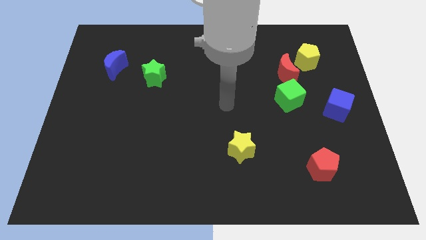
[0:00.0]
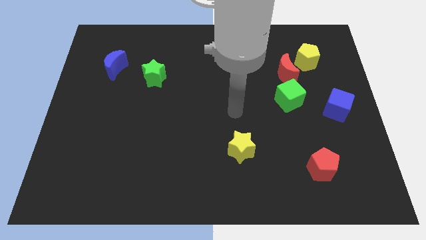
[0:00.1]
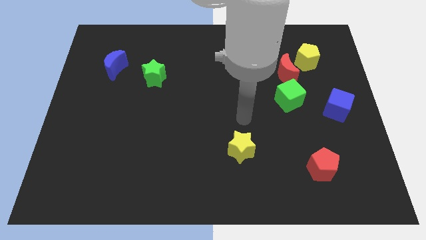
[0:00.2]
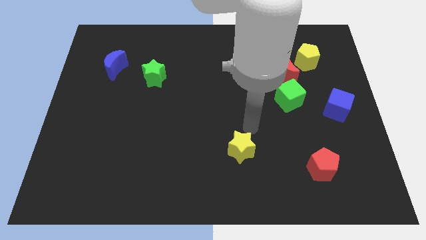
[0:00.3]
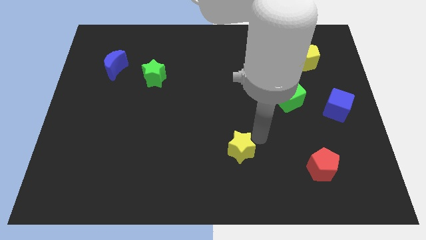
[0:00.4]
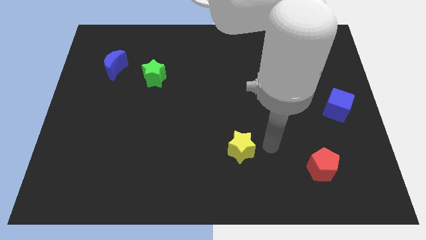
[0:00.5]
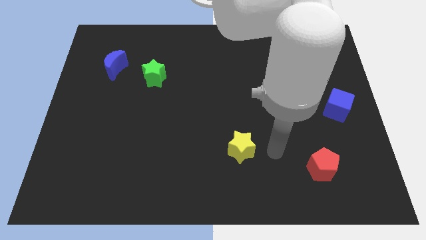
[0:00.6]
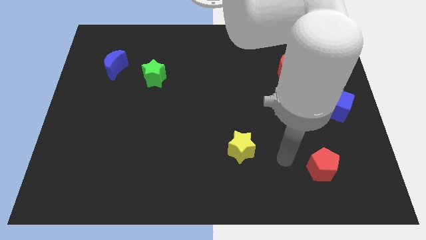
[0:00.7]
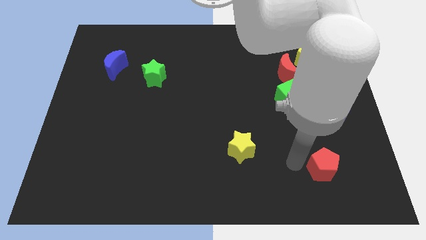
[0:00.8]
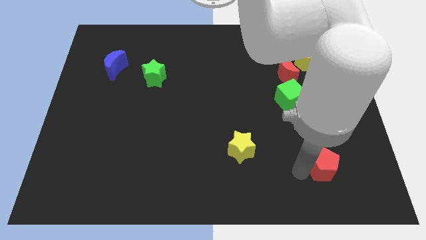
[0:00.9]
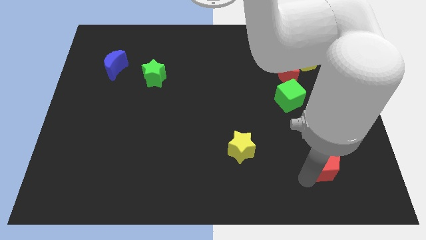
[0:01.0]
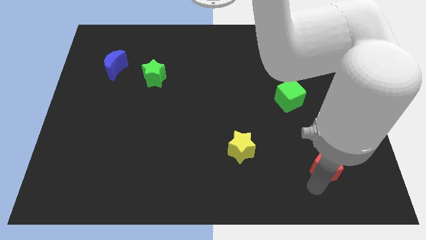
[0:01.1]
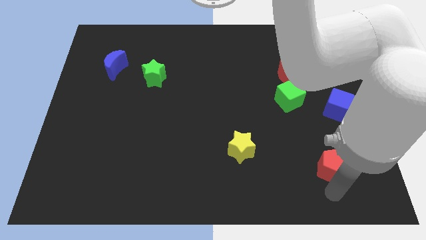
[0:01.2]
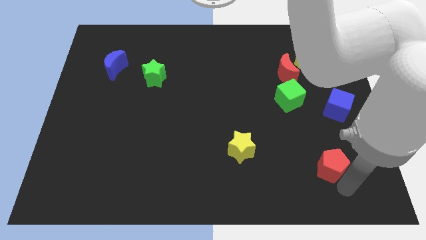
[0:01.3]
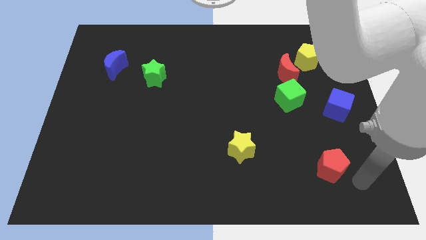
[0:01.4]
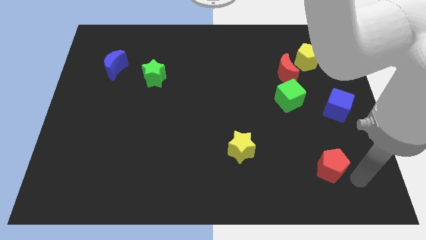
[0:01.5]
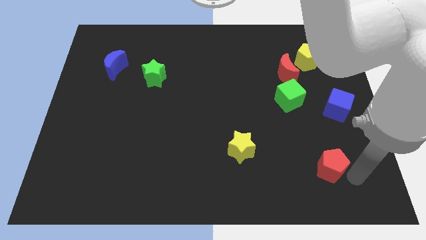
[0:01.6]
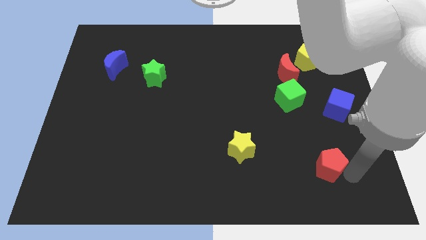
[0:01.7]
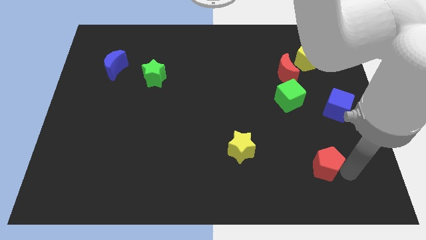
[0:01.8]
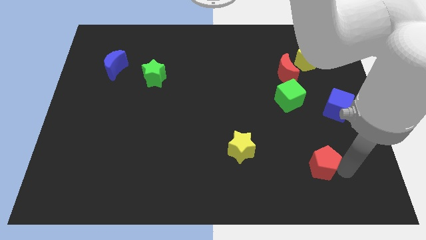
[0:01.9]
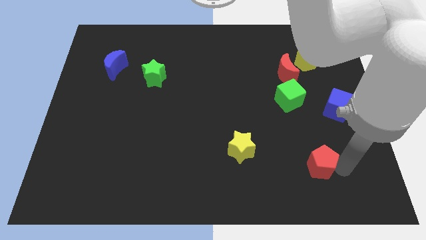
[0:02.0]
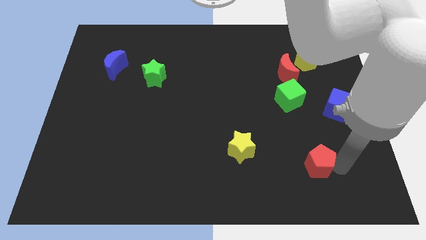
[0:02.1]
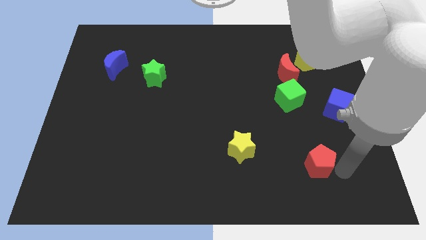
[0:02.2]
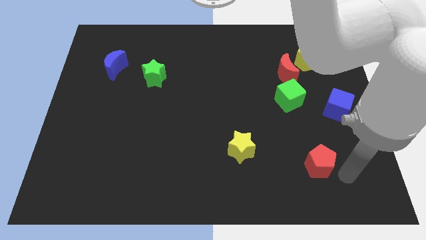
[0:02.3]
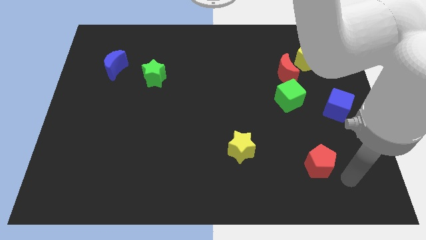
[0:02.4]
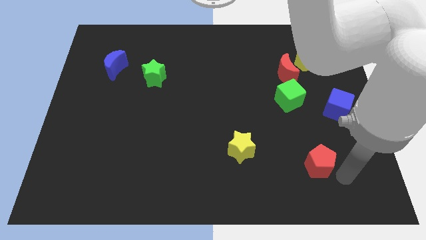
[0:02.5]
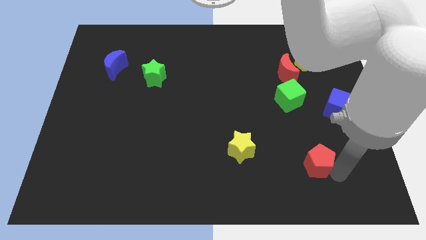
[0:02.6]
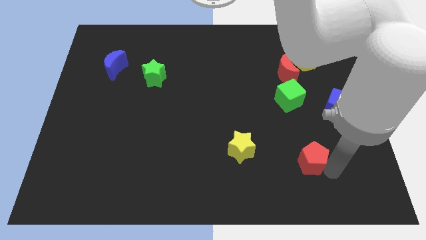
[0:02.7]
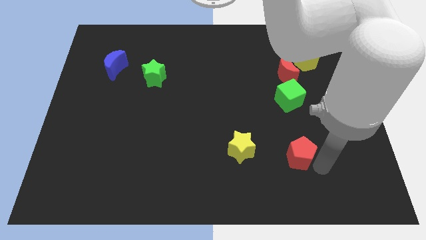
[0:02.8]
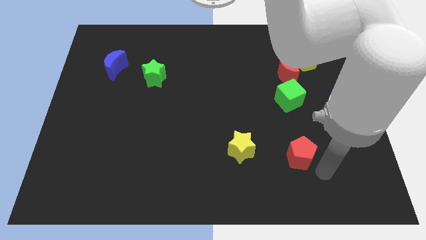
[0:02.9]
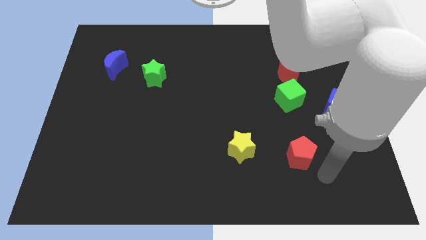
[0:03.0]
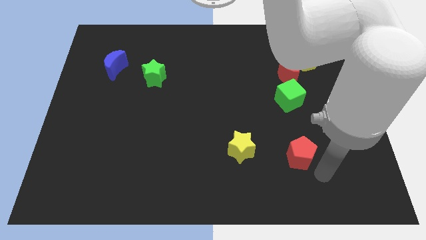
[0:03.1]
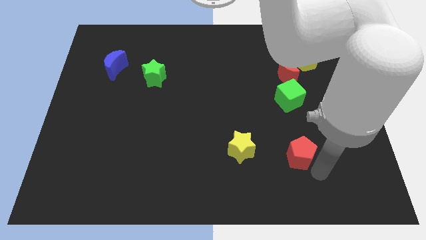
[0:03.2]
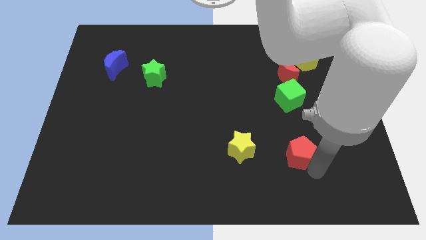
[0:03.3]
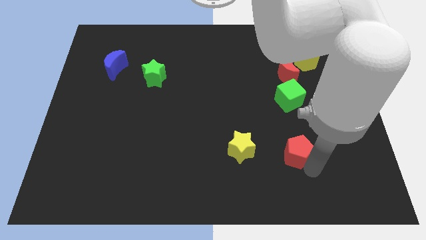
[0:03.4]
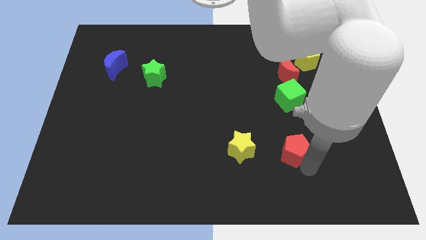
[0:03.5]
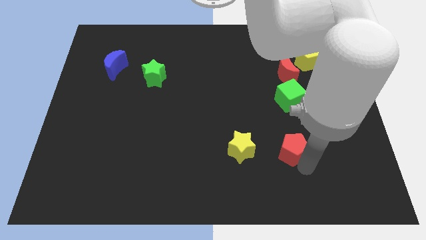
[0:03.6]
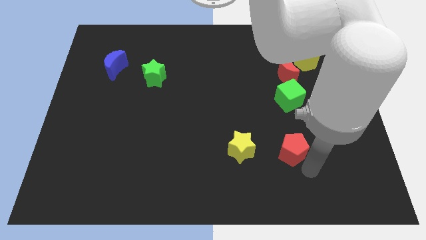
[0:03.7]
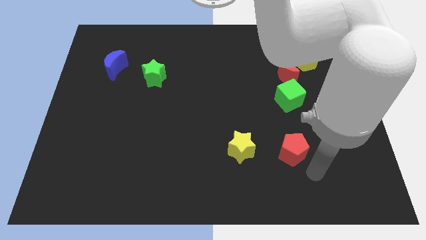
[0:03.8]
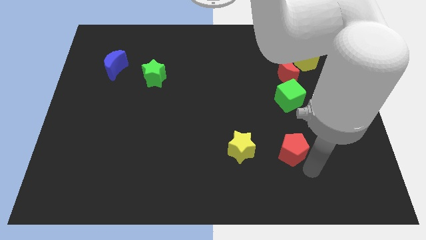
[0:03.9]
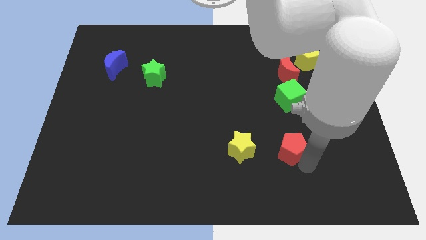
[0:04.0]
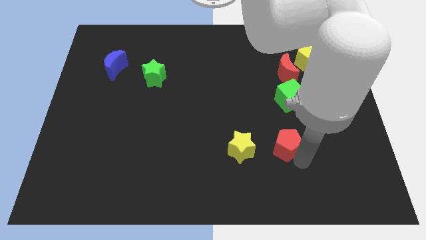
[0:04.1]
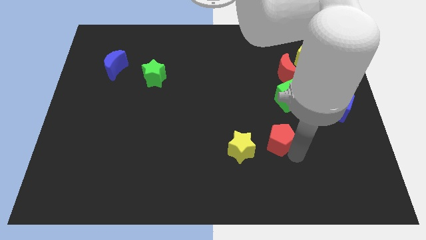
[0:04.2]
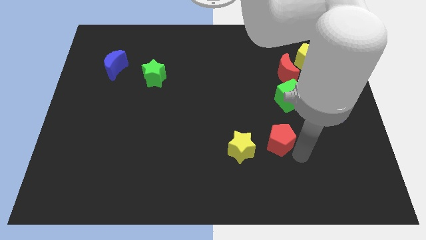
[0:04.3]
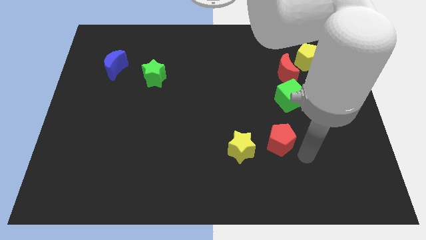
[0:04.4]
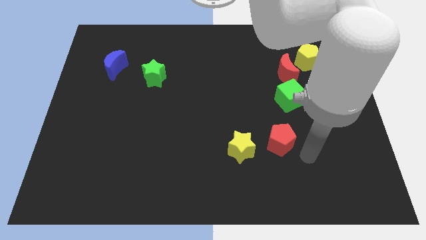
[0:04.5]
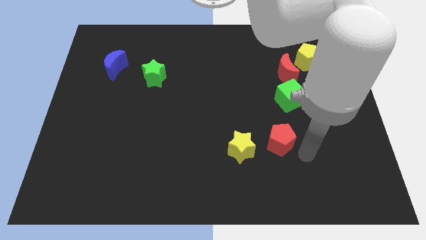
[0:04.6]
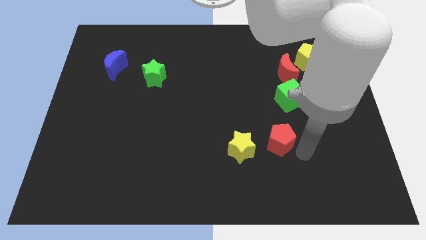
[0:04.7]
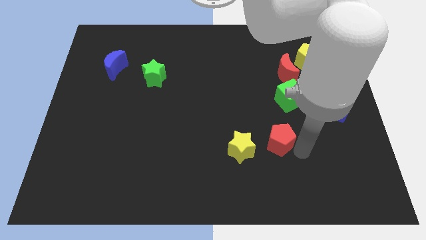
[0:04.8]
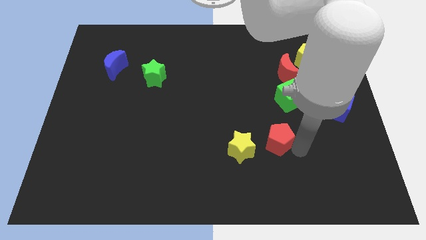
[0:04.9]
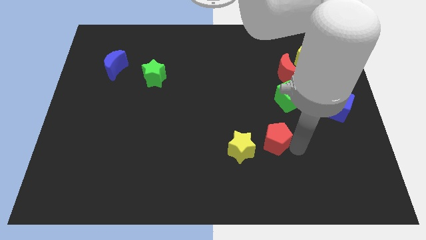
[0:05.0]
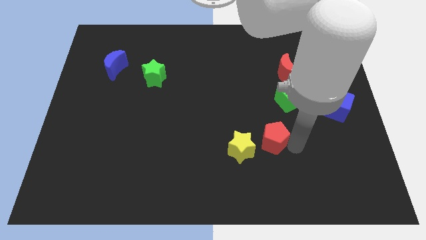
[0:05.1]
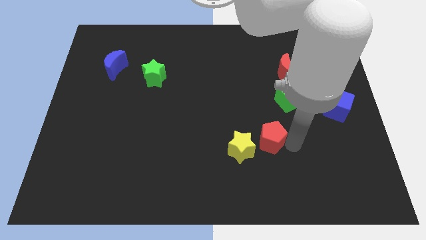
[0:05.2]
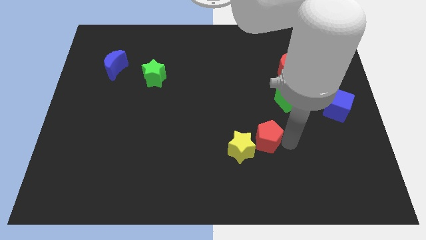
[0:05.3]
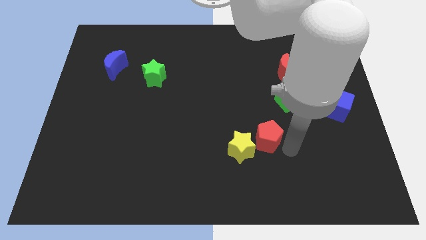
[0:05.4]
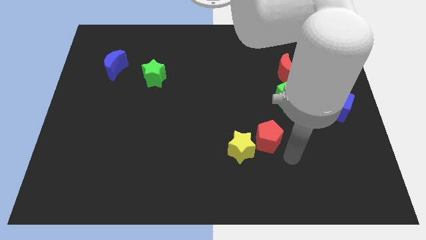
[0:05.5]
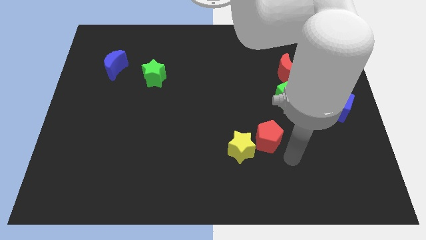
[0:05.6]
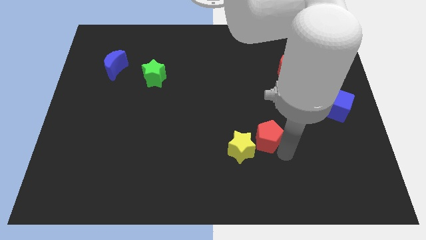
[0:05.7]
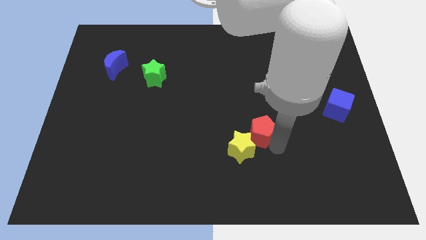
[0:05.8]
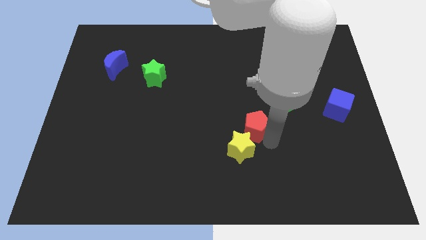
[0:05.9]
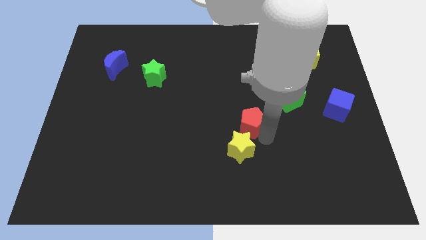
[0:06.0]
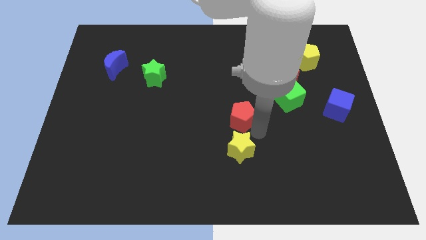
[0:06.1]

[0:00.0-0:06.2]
move the red pentagon up and left

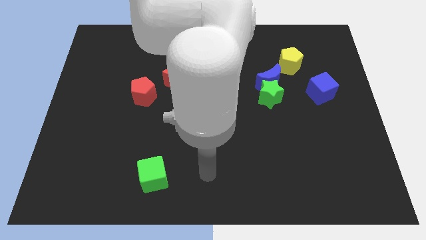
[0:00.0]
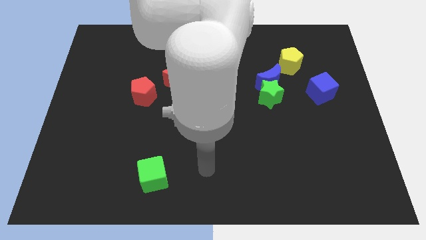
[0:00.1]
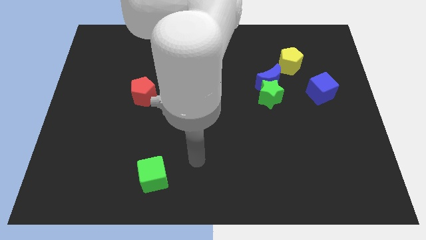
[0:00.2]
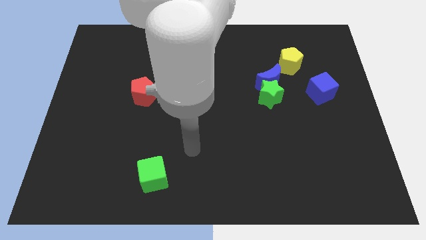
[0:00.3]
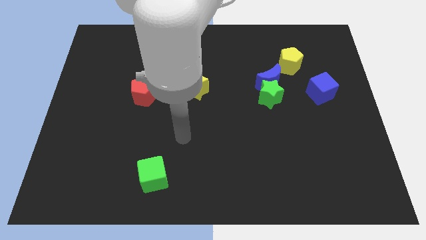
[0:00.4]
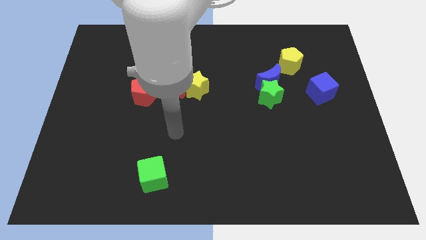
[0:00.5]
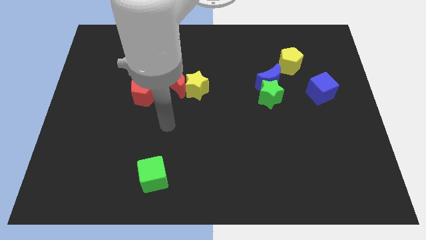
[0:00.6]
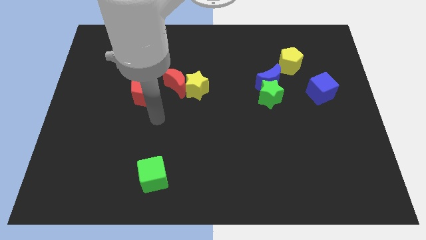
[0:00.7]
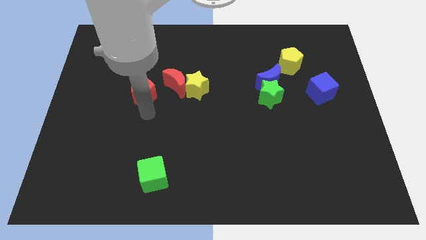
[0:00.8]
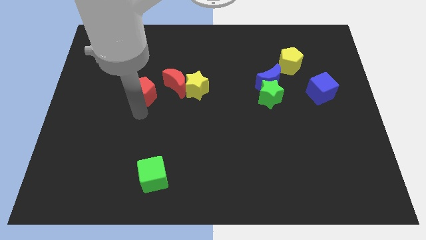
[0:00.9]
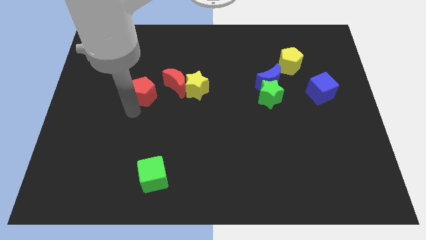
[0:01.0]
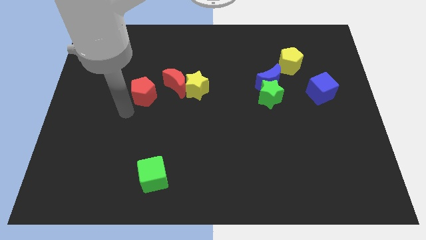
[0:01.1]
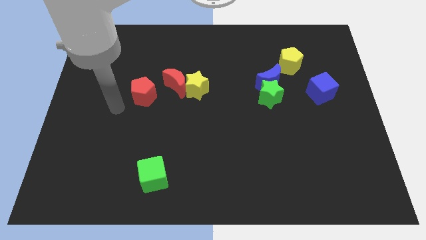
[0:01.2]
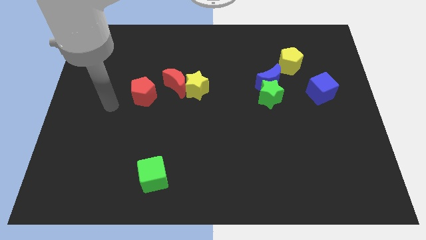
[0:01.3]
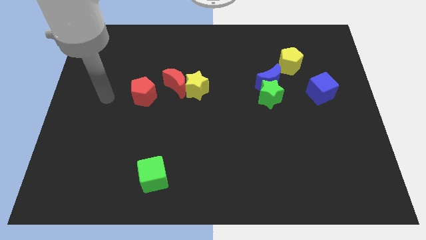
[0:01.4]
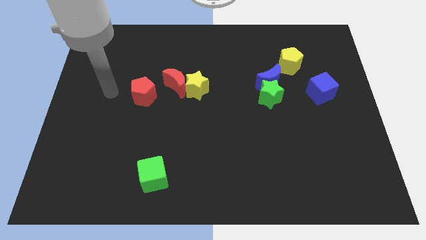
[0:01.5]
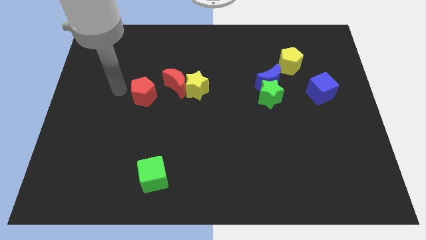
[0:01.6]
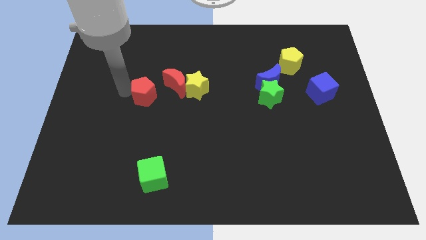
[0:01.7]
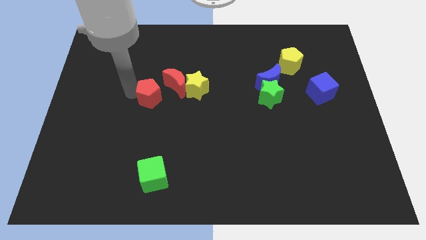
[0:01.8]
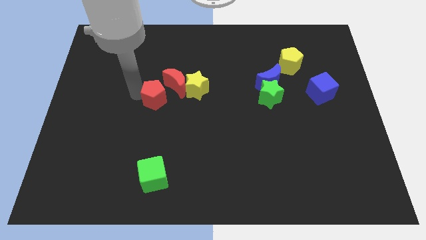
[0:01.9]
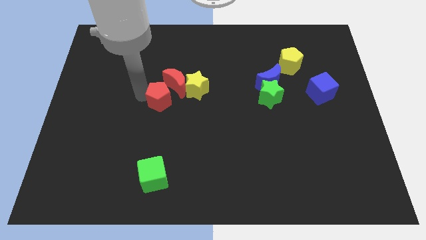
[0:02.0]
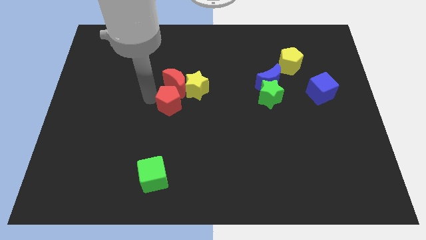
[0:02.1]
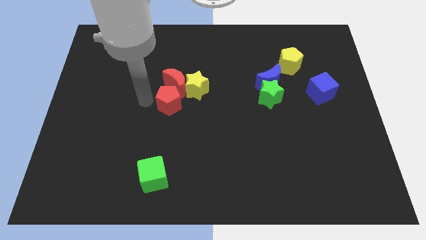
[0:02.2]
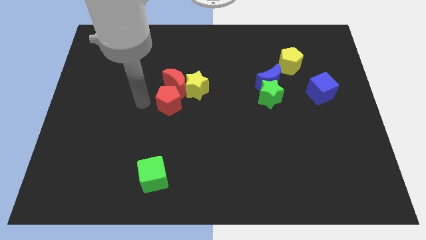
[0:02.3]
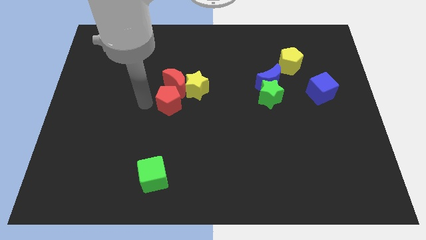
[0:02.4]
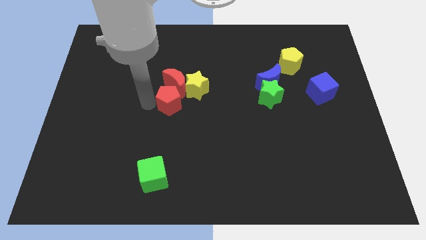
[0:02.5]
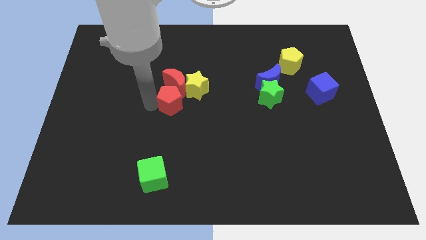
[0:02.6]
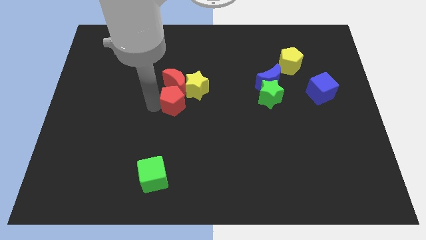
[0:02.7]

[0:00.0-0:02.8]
slightly slide the red pentagon to the right
